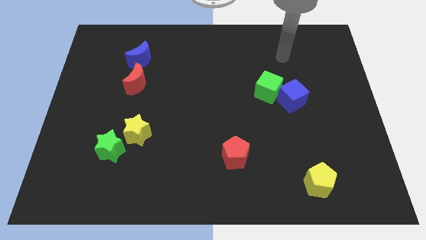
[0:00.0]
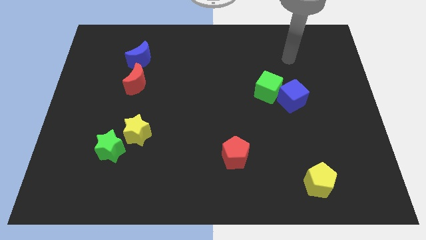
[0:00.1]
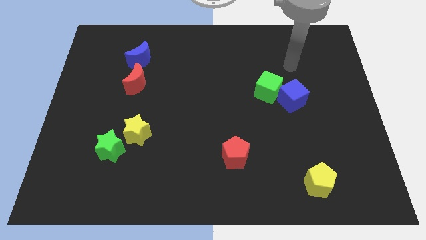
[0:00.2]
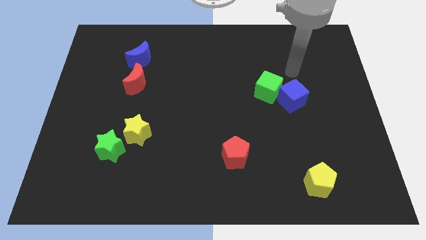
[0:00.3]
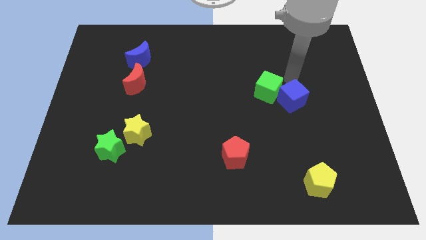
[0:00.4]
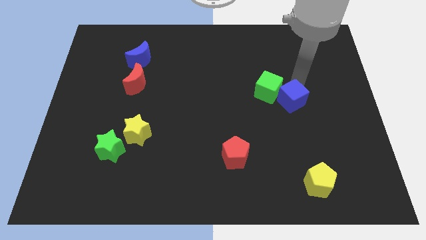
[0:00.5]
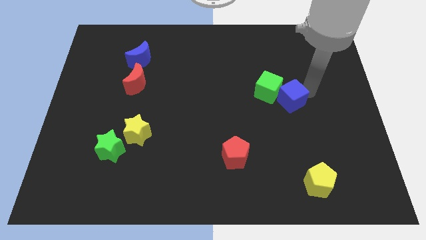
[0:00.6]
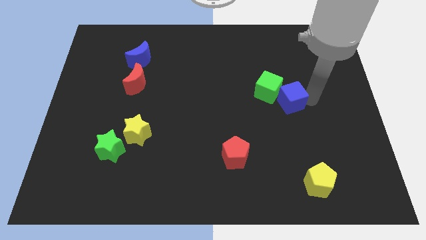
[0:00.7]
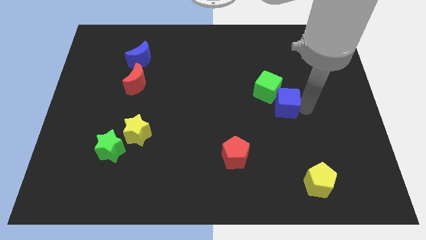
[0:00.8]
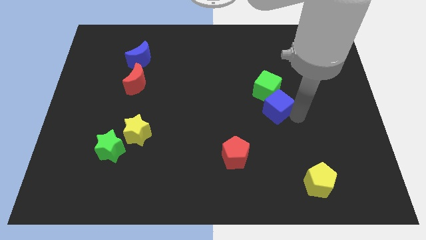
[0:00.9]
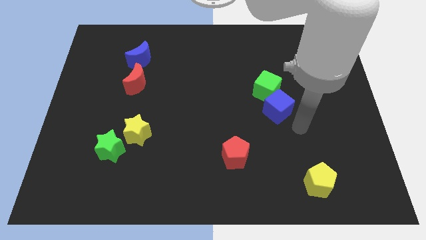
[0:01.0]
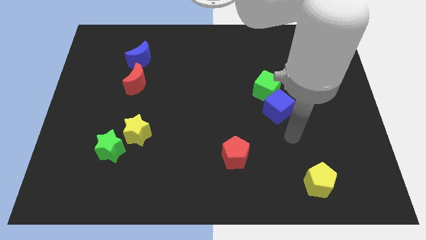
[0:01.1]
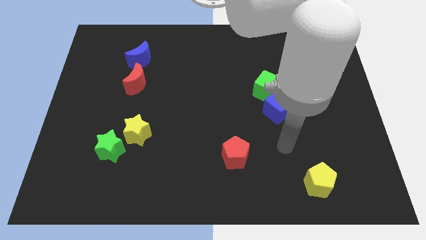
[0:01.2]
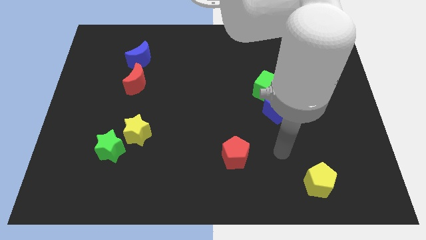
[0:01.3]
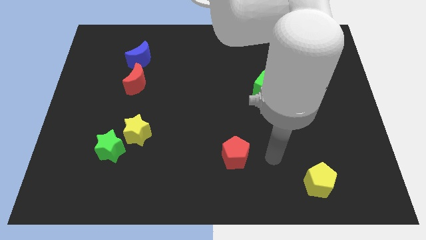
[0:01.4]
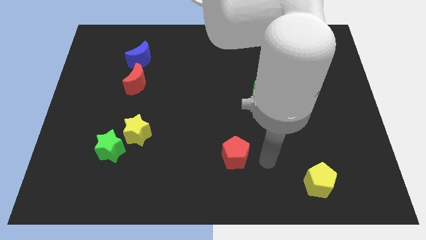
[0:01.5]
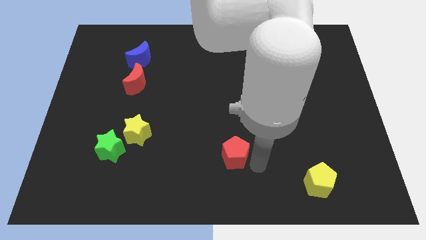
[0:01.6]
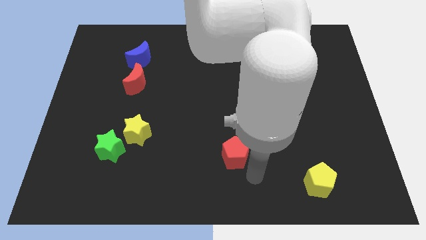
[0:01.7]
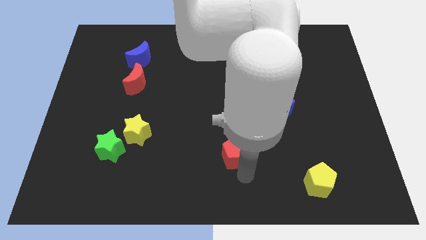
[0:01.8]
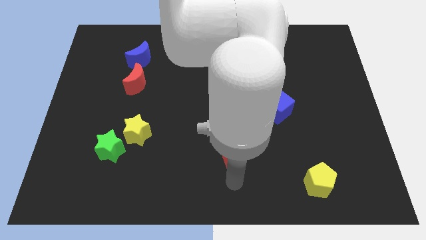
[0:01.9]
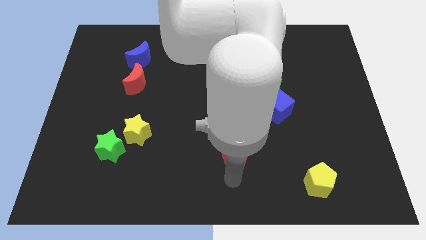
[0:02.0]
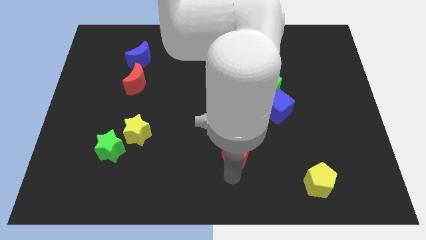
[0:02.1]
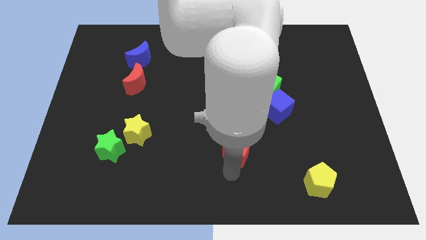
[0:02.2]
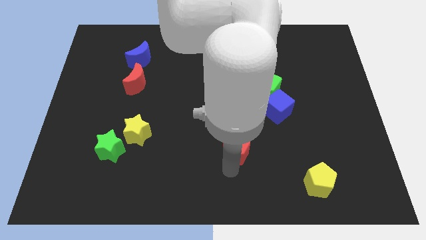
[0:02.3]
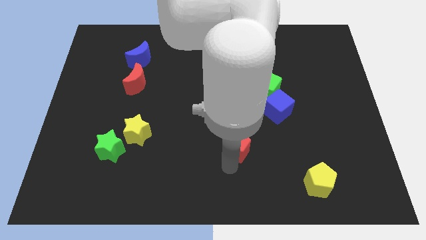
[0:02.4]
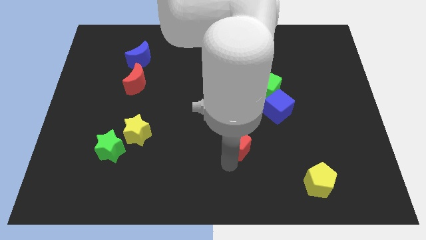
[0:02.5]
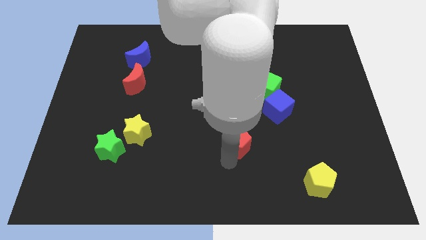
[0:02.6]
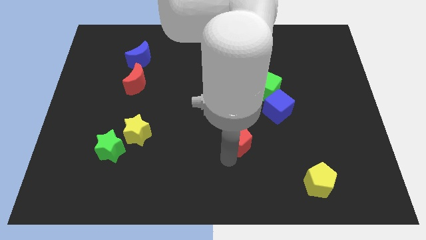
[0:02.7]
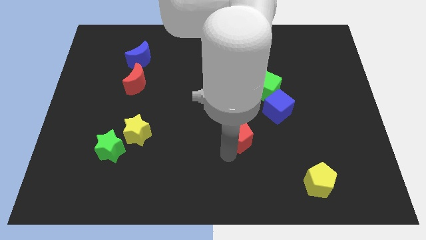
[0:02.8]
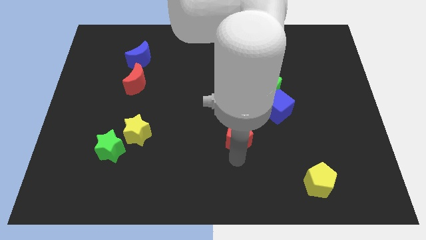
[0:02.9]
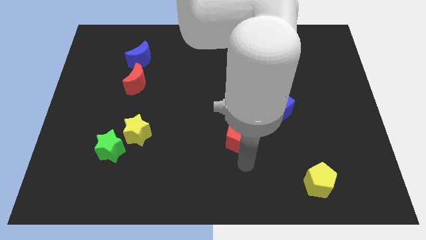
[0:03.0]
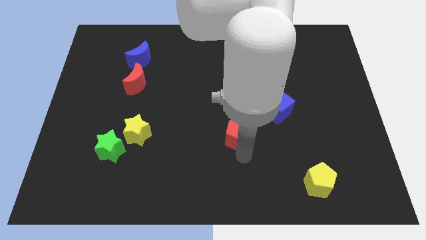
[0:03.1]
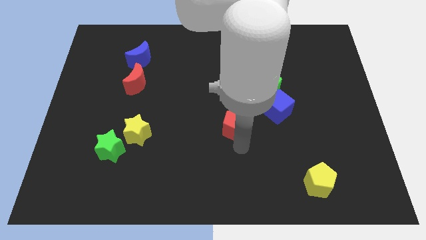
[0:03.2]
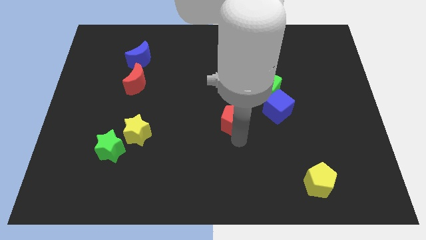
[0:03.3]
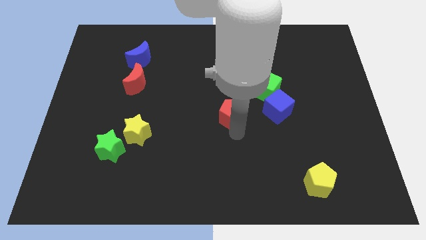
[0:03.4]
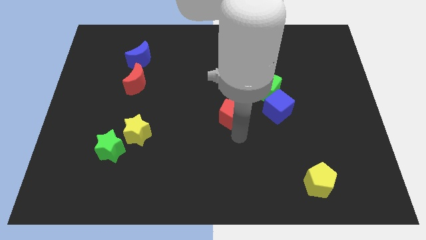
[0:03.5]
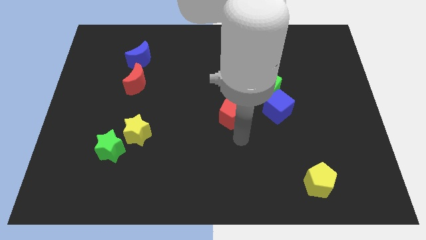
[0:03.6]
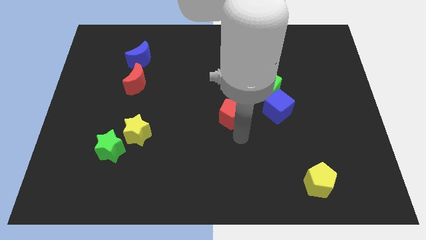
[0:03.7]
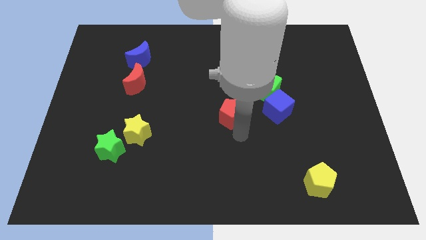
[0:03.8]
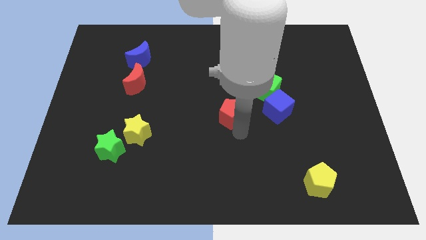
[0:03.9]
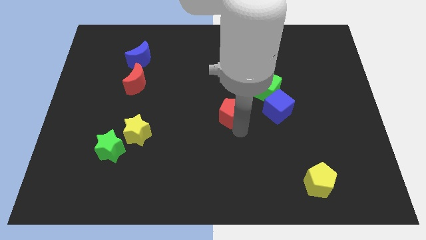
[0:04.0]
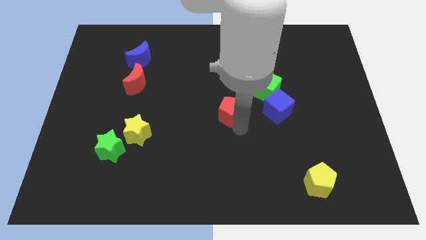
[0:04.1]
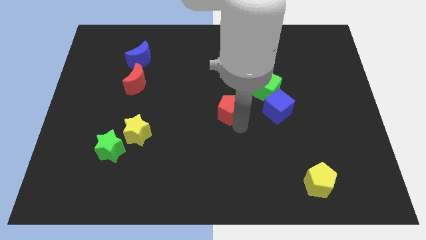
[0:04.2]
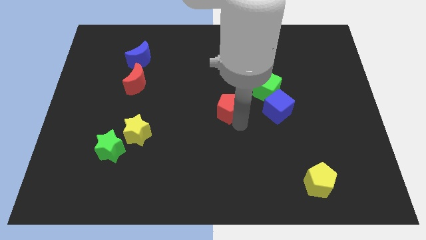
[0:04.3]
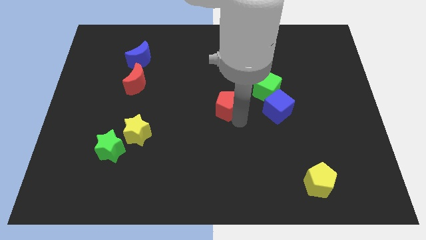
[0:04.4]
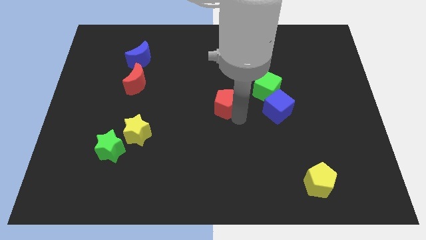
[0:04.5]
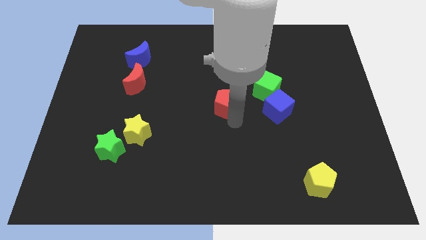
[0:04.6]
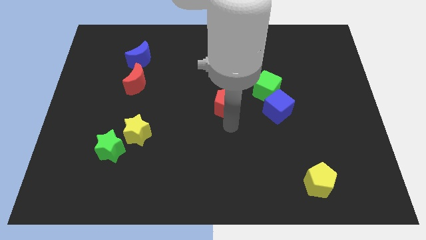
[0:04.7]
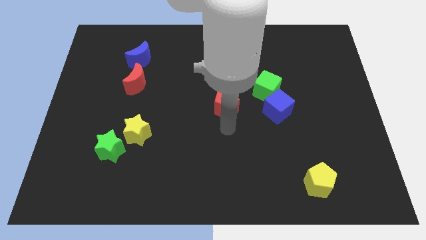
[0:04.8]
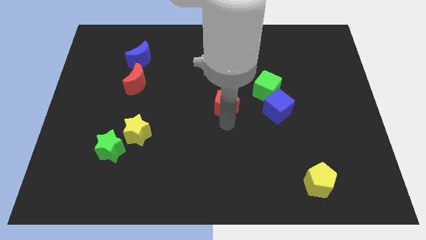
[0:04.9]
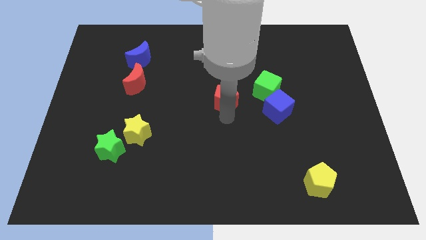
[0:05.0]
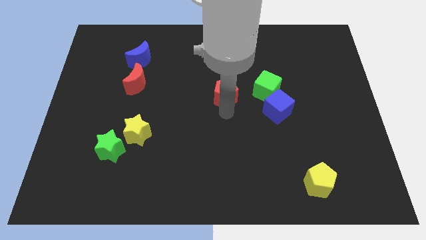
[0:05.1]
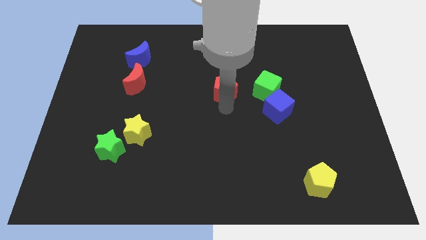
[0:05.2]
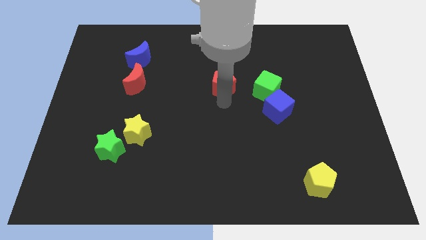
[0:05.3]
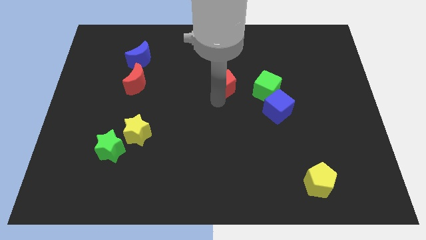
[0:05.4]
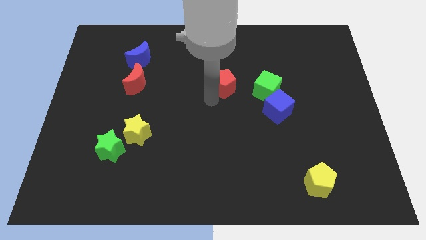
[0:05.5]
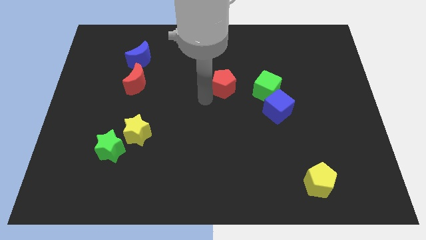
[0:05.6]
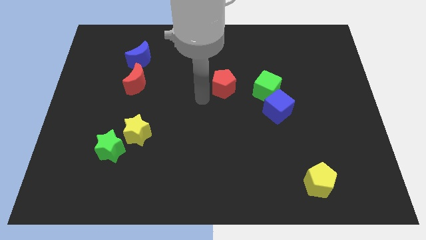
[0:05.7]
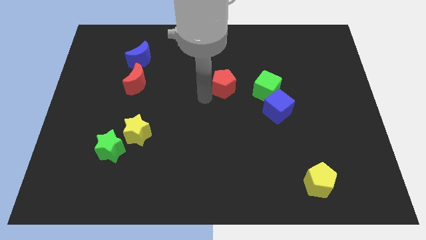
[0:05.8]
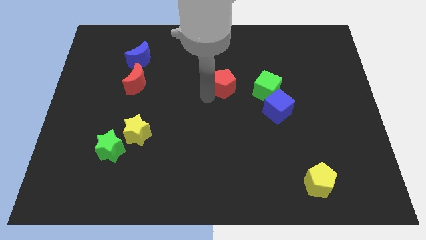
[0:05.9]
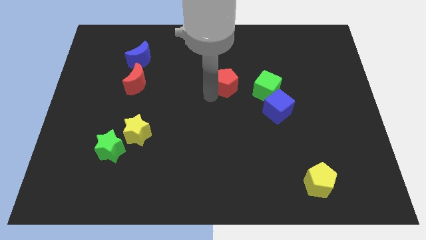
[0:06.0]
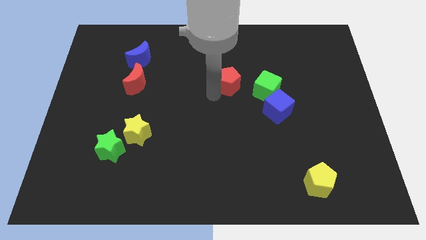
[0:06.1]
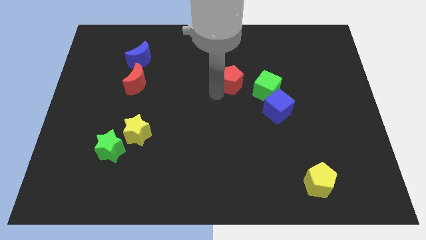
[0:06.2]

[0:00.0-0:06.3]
push the red pentagon diagonally up and to the left of the green cube

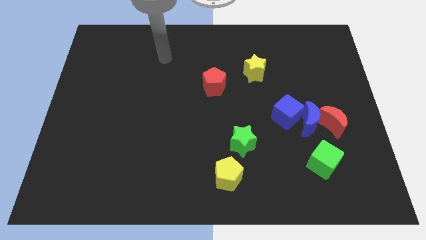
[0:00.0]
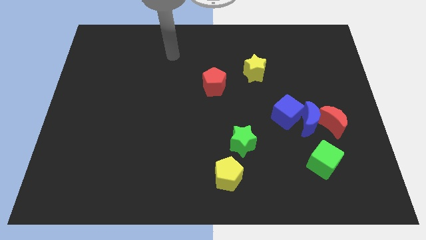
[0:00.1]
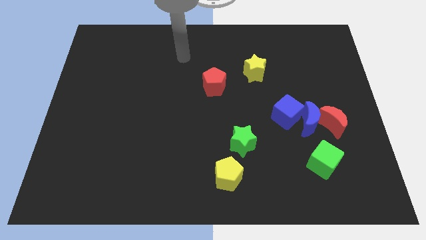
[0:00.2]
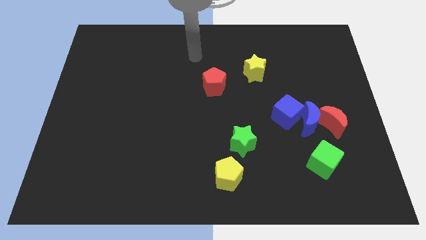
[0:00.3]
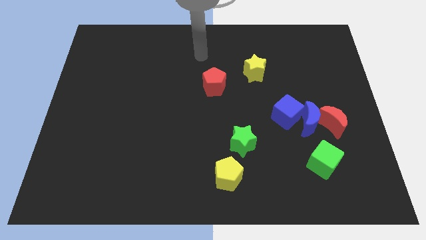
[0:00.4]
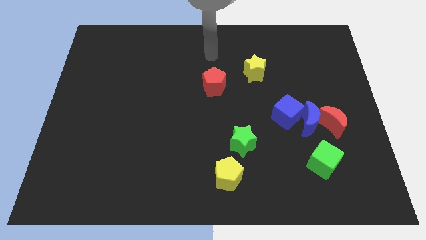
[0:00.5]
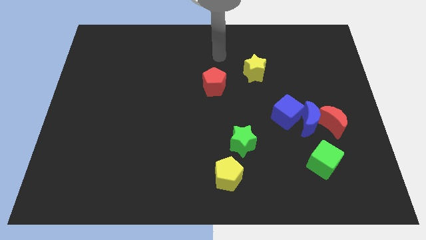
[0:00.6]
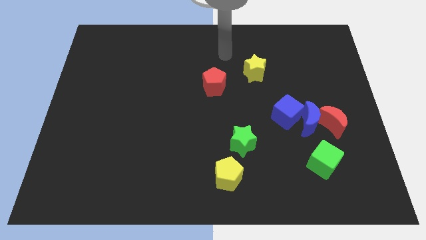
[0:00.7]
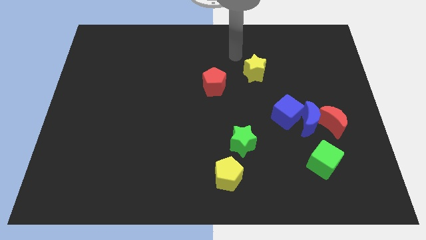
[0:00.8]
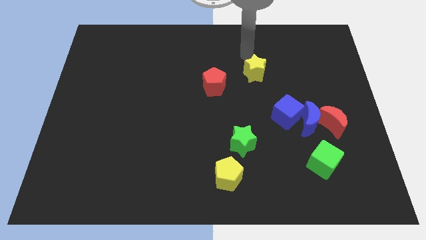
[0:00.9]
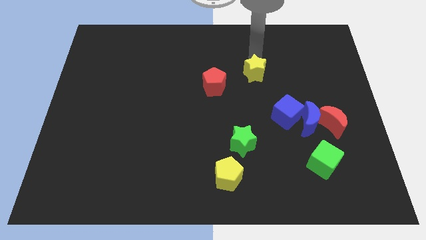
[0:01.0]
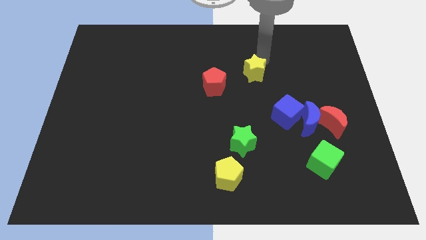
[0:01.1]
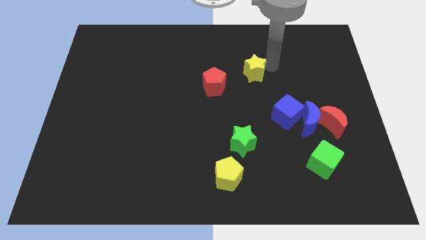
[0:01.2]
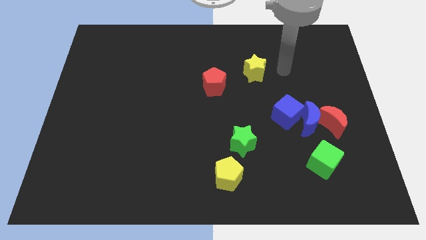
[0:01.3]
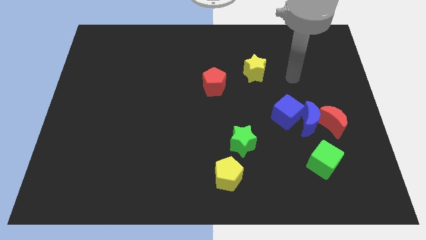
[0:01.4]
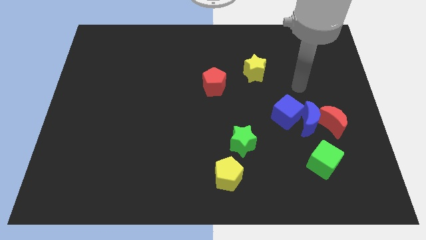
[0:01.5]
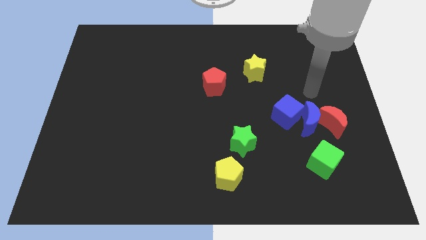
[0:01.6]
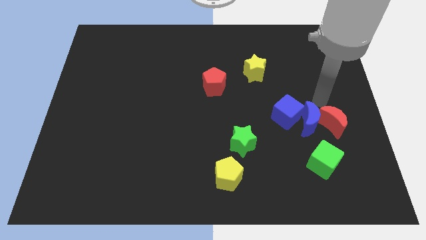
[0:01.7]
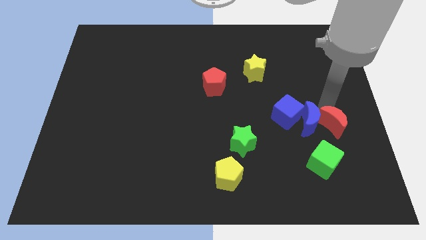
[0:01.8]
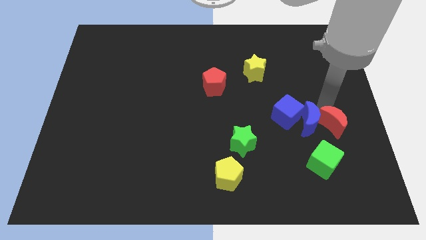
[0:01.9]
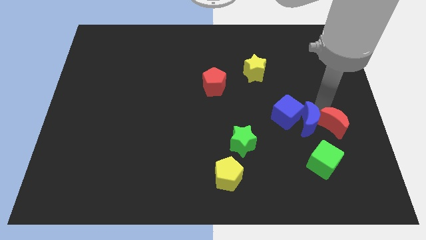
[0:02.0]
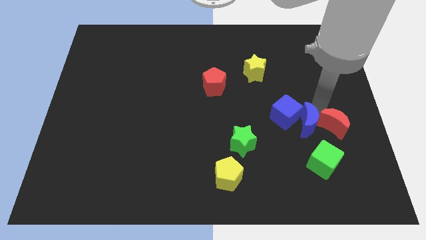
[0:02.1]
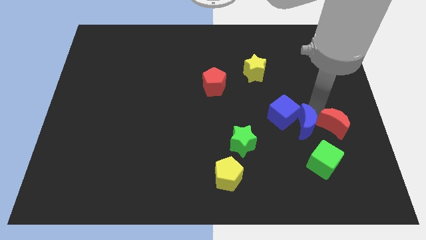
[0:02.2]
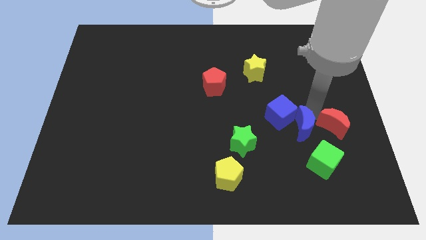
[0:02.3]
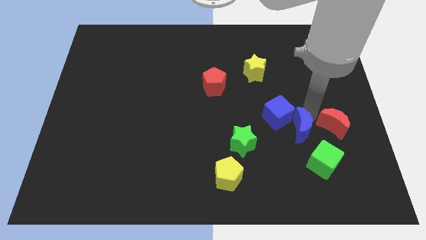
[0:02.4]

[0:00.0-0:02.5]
put the blue moon to the right of the green star
